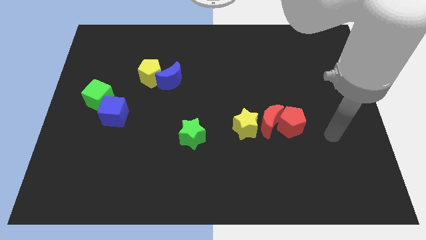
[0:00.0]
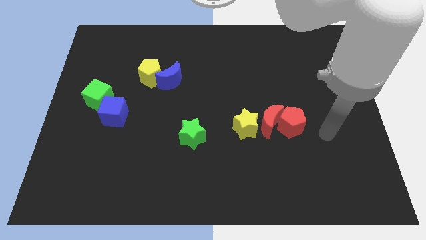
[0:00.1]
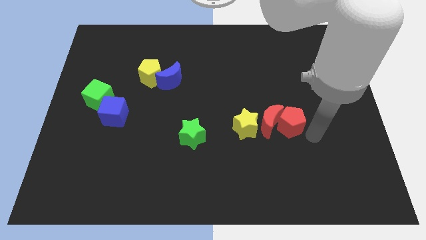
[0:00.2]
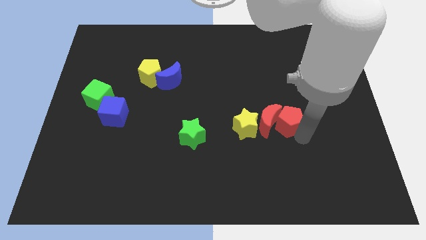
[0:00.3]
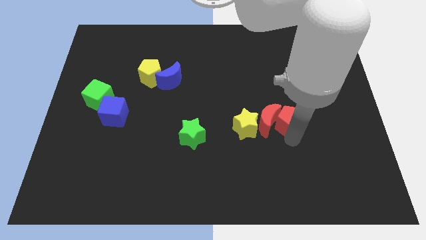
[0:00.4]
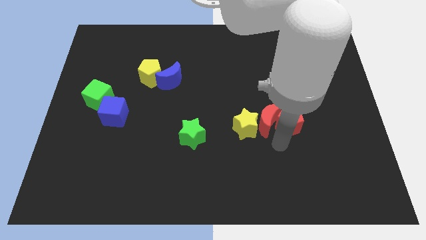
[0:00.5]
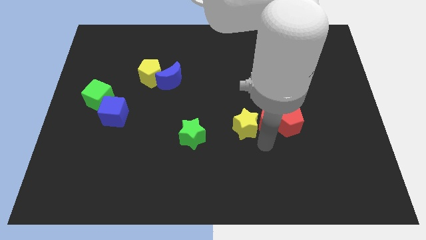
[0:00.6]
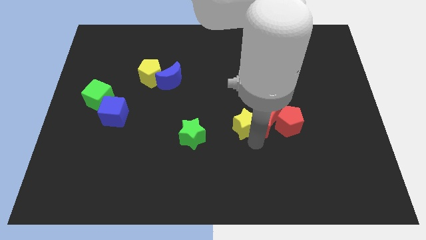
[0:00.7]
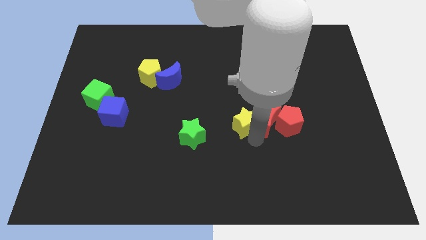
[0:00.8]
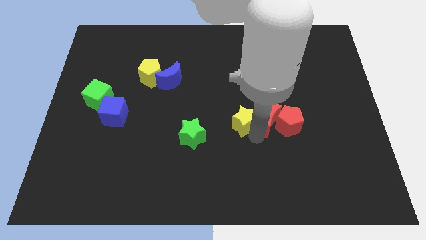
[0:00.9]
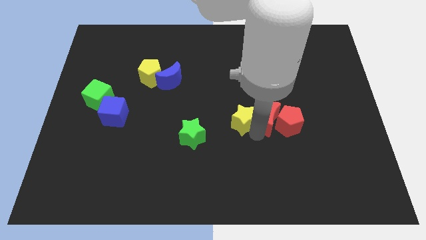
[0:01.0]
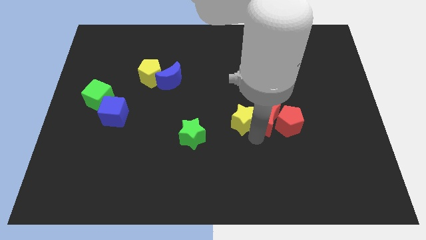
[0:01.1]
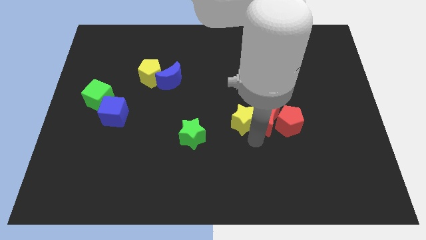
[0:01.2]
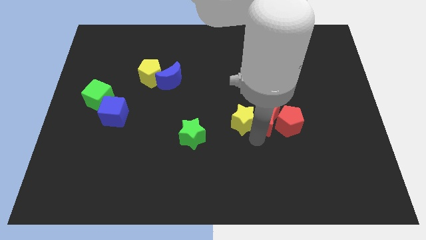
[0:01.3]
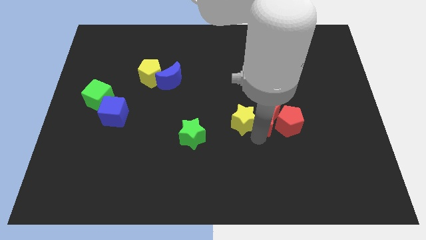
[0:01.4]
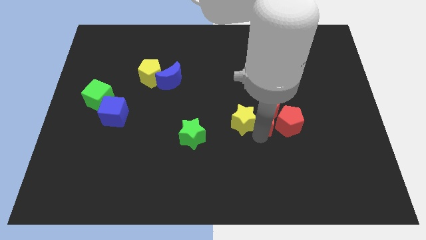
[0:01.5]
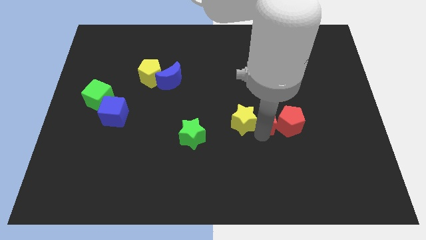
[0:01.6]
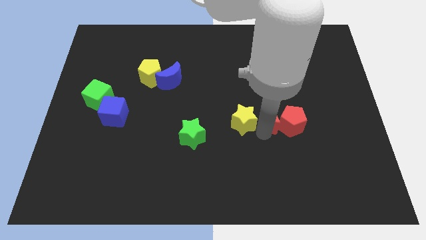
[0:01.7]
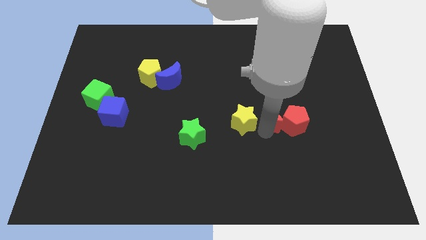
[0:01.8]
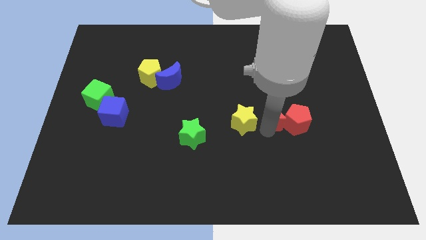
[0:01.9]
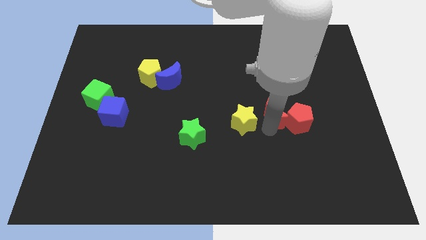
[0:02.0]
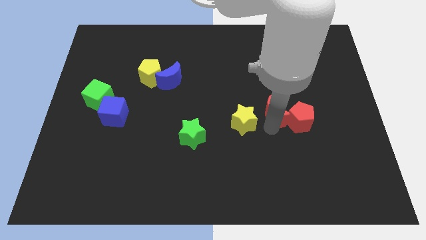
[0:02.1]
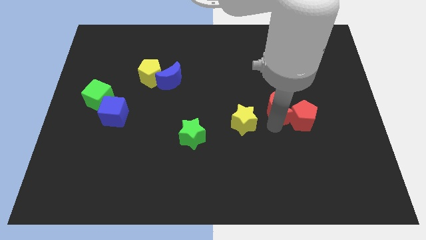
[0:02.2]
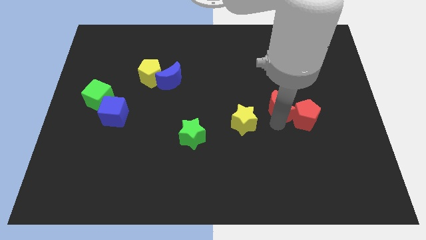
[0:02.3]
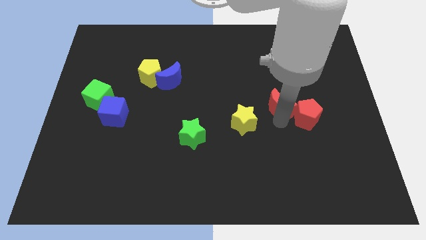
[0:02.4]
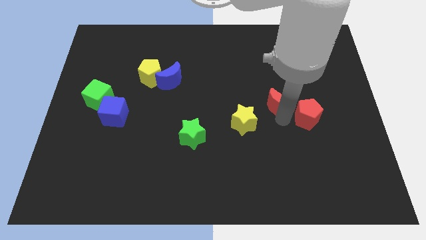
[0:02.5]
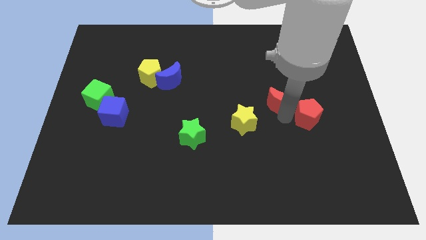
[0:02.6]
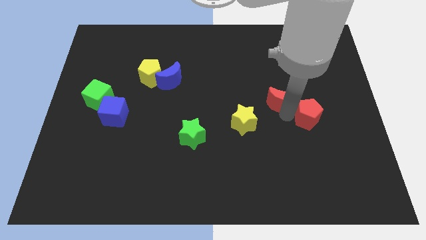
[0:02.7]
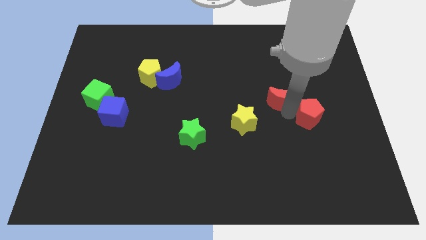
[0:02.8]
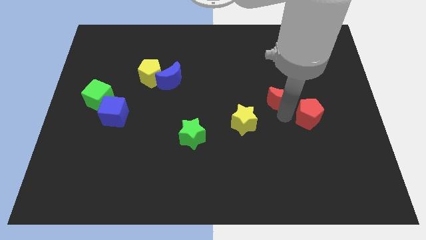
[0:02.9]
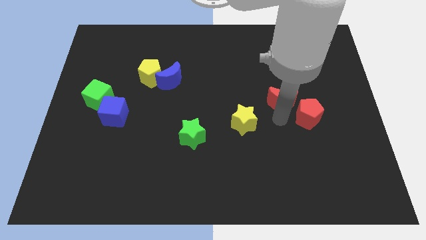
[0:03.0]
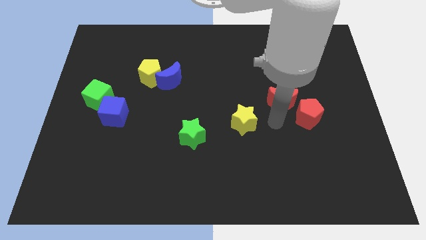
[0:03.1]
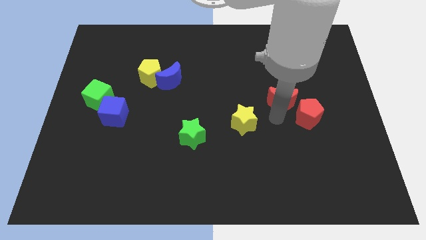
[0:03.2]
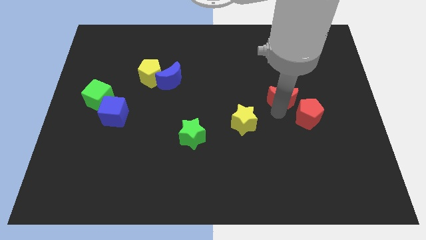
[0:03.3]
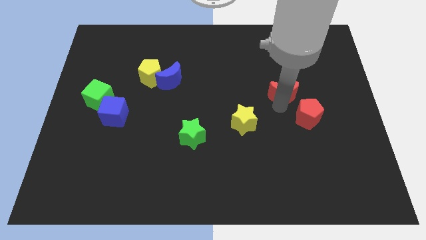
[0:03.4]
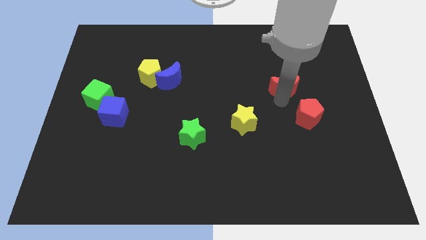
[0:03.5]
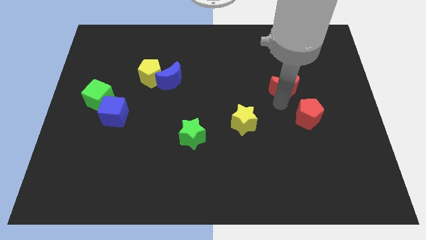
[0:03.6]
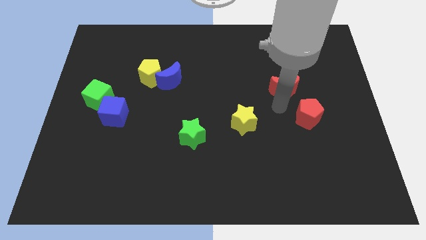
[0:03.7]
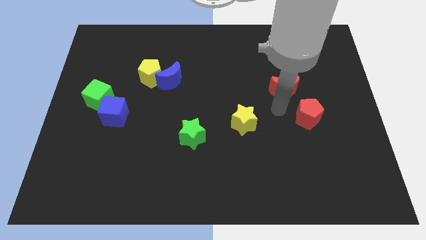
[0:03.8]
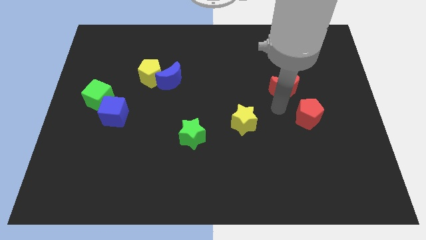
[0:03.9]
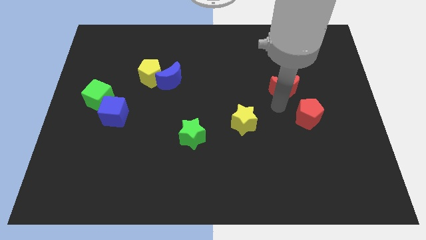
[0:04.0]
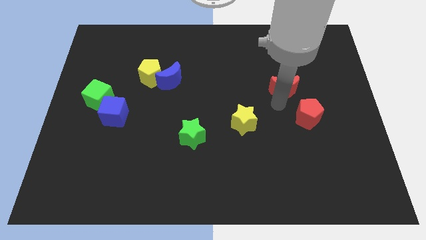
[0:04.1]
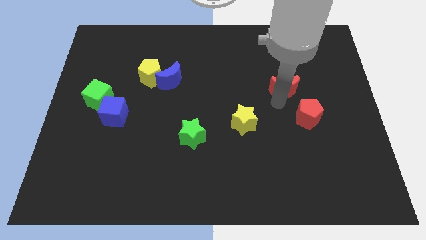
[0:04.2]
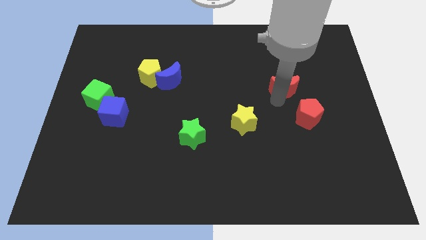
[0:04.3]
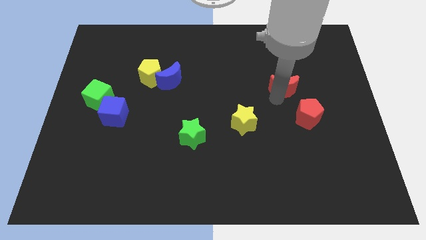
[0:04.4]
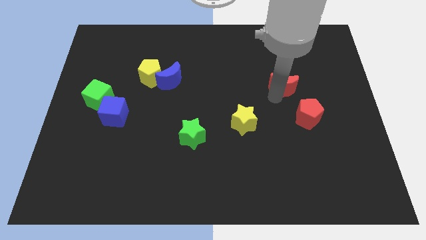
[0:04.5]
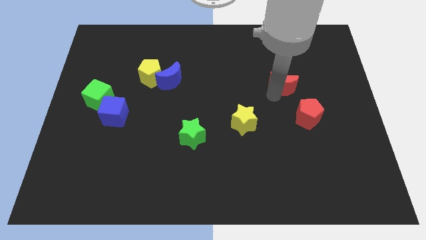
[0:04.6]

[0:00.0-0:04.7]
move the red moon away from the red pentagon and yellow star

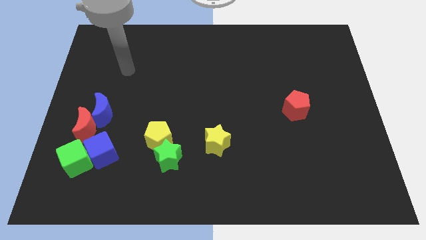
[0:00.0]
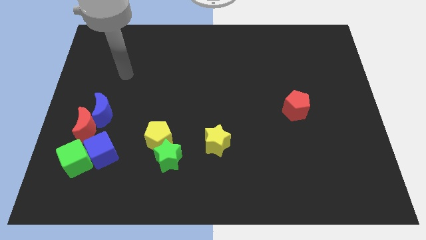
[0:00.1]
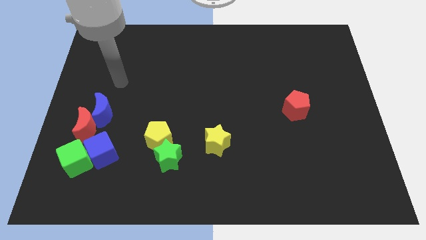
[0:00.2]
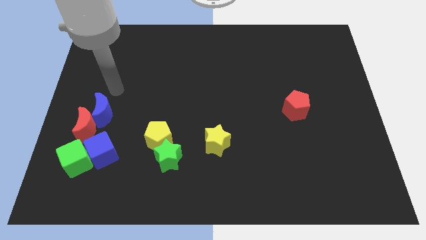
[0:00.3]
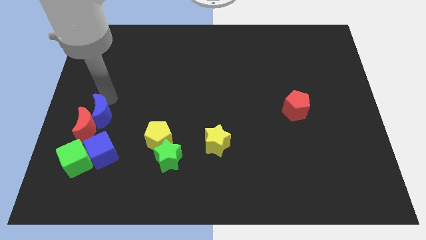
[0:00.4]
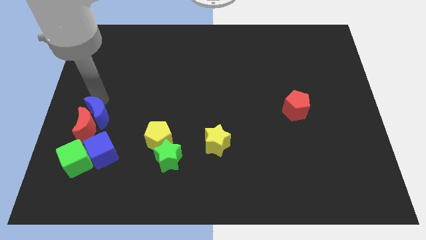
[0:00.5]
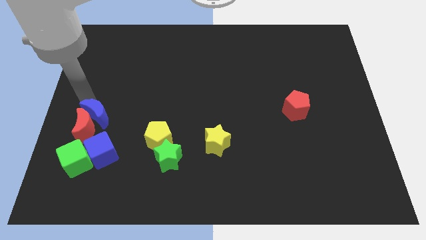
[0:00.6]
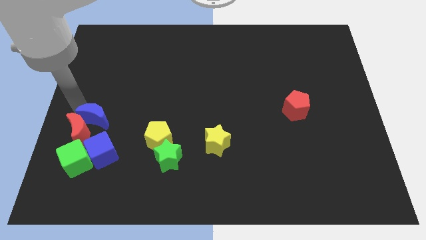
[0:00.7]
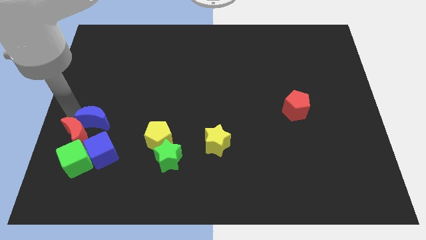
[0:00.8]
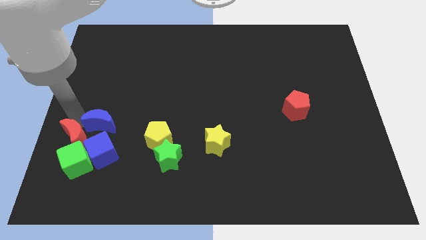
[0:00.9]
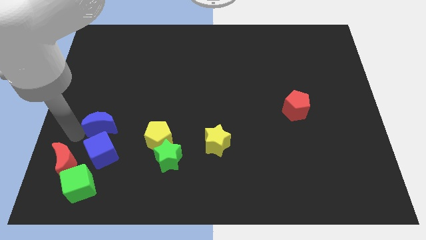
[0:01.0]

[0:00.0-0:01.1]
pull the blue moon apart from the red moon

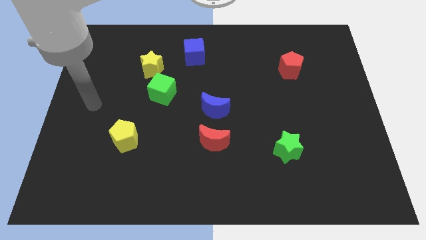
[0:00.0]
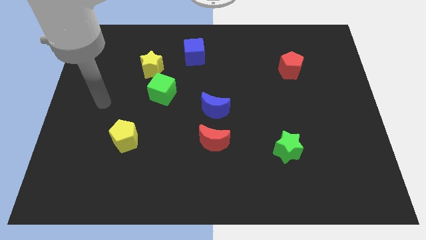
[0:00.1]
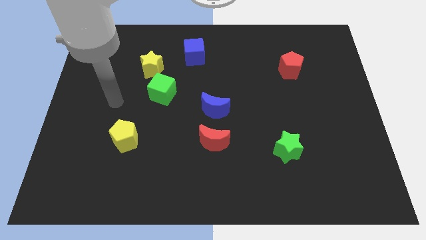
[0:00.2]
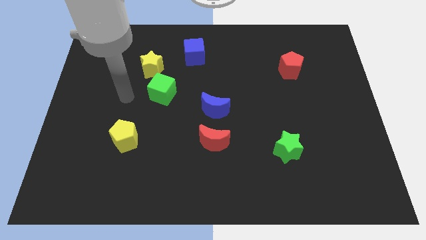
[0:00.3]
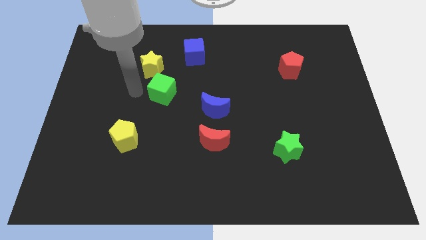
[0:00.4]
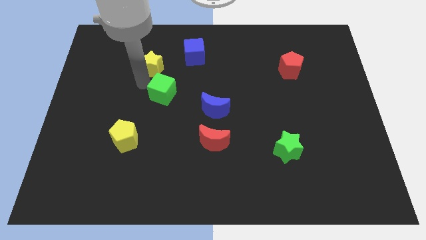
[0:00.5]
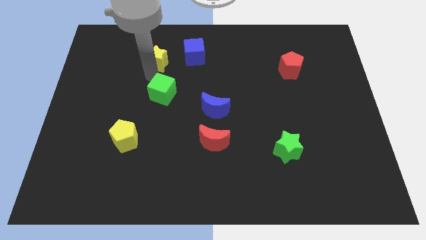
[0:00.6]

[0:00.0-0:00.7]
move the green cube away from the yellow star

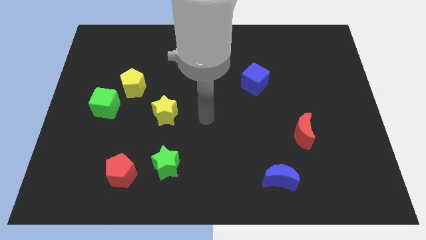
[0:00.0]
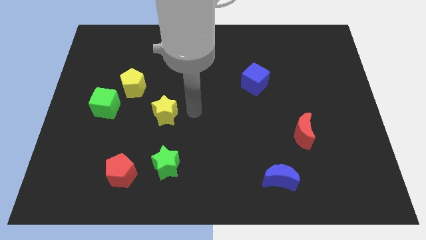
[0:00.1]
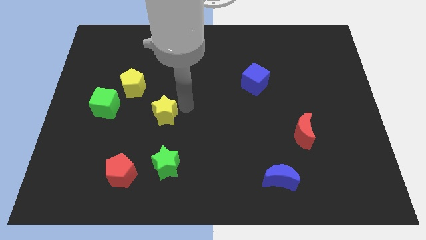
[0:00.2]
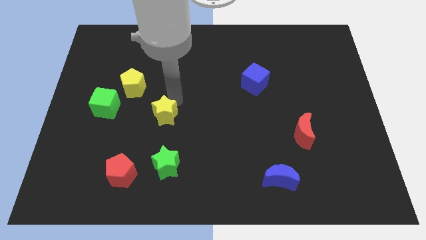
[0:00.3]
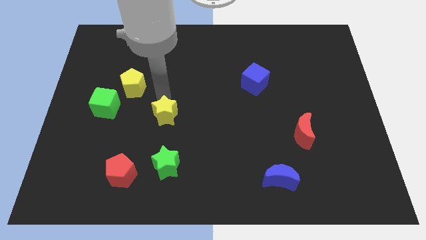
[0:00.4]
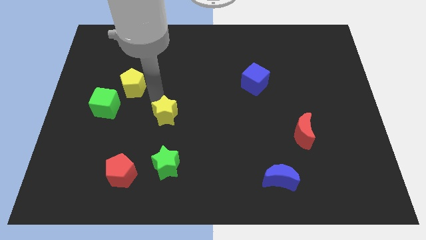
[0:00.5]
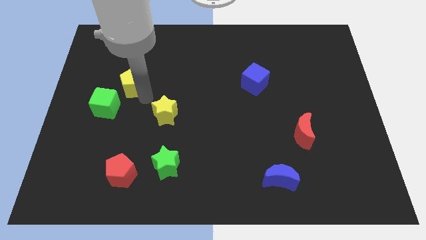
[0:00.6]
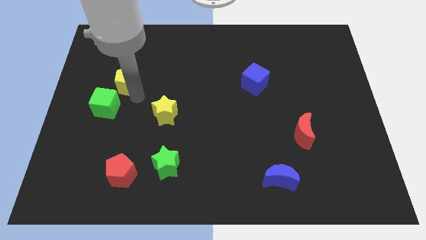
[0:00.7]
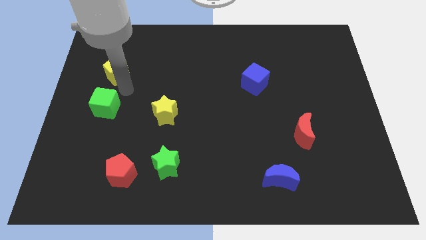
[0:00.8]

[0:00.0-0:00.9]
pull the green cube apart from the yellow pentagon

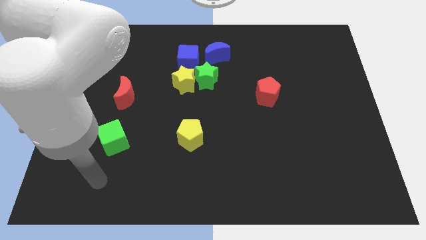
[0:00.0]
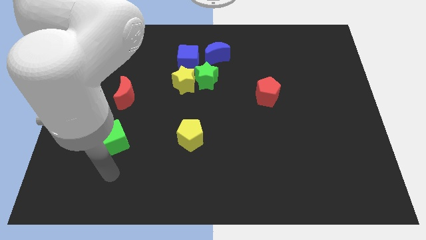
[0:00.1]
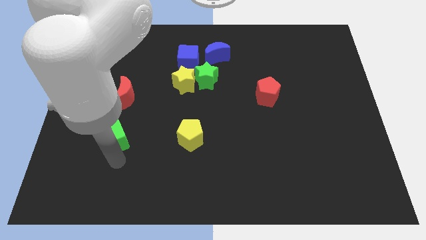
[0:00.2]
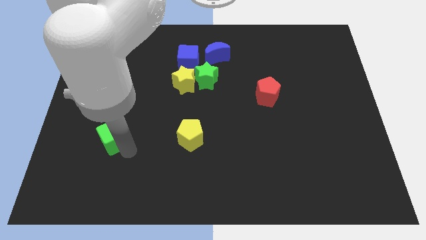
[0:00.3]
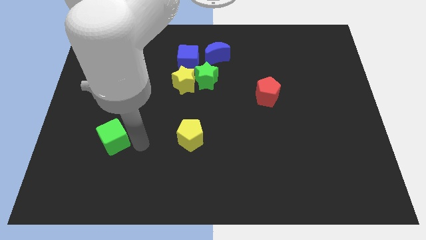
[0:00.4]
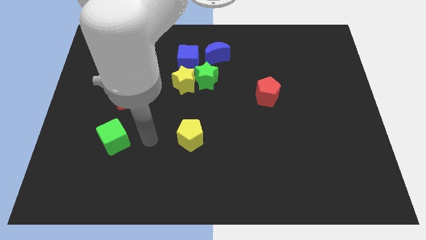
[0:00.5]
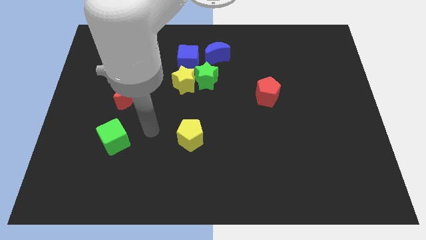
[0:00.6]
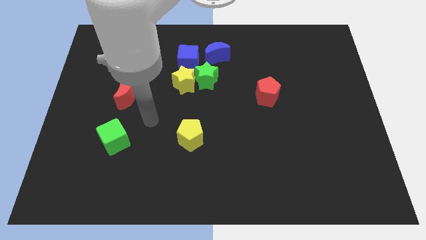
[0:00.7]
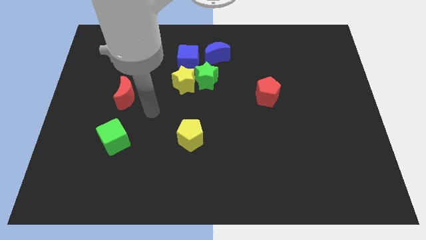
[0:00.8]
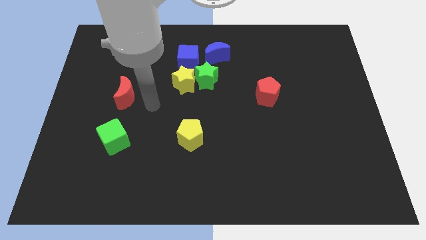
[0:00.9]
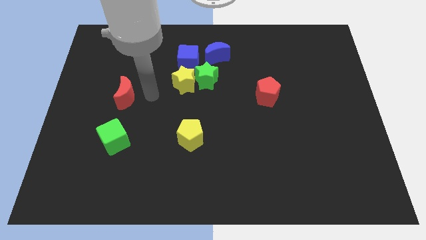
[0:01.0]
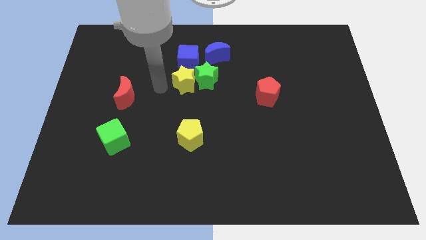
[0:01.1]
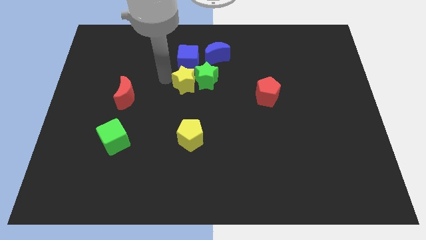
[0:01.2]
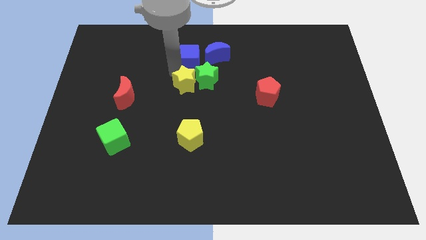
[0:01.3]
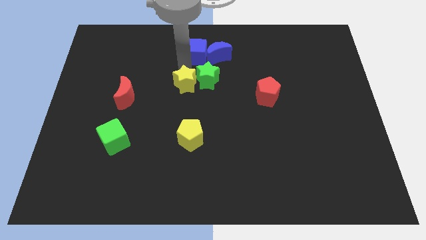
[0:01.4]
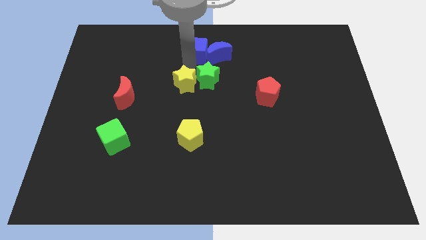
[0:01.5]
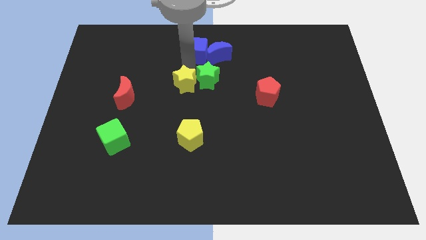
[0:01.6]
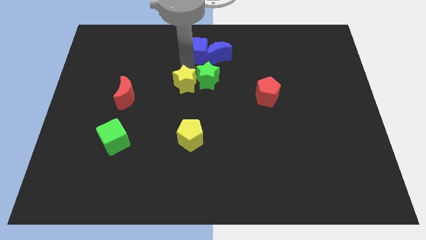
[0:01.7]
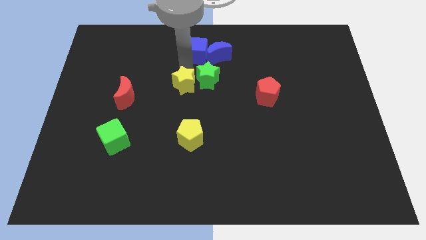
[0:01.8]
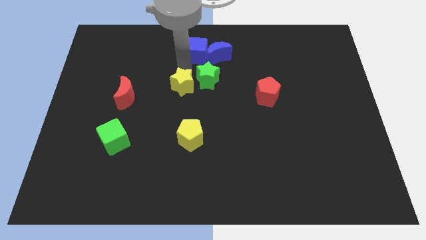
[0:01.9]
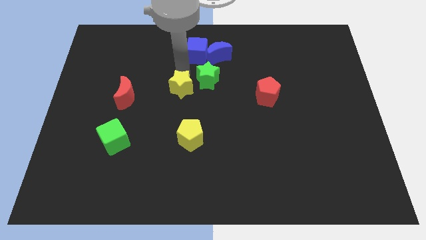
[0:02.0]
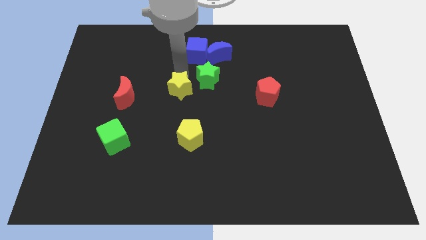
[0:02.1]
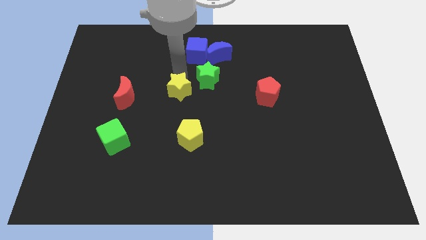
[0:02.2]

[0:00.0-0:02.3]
move the yellow star away from the green star and blue cube
